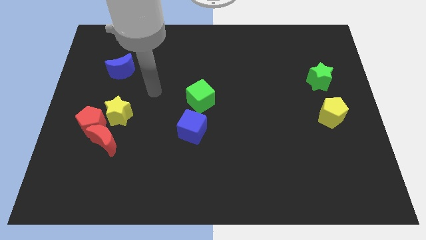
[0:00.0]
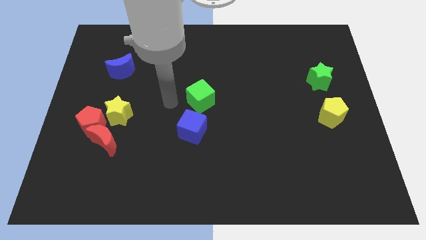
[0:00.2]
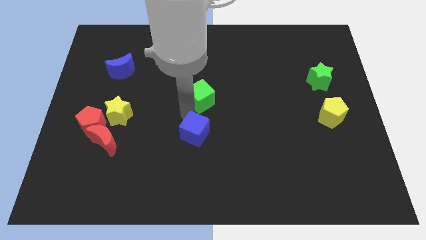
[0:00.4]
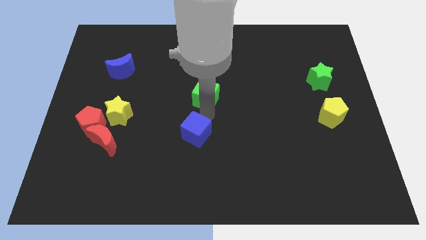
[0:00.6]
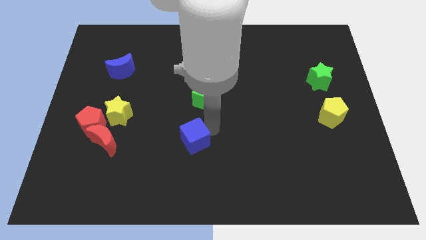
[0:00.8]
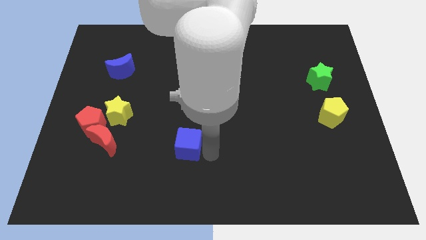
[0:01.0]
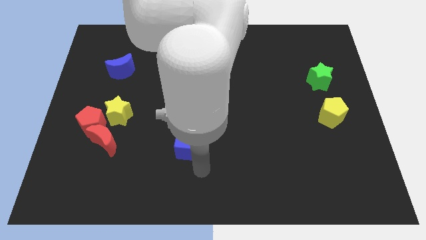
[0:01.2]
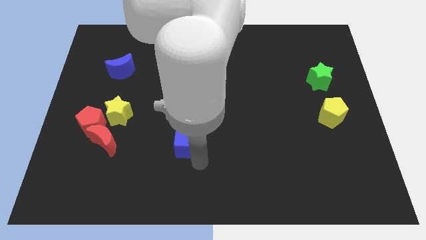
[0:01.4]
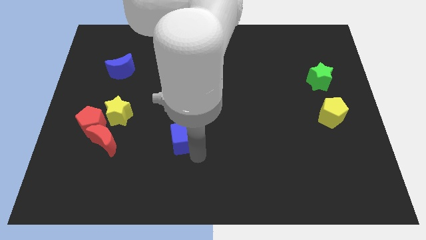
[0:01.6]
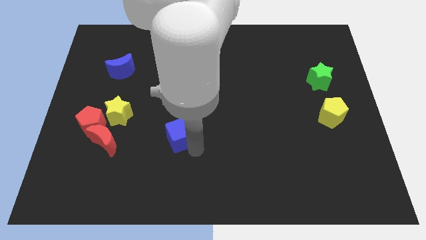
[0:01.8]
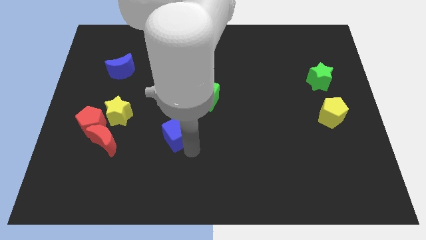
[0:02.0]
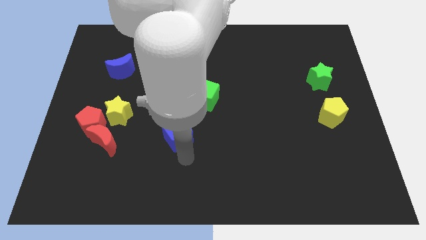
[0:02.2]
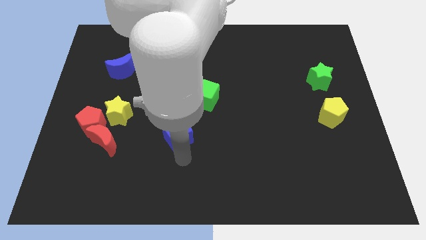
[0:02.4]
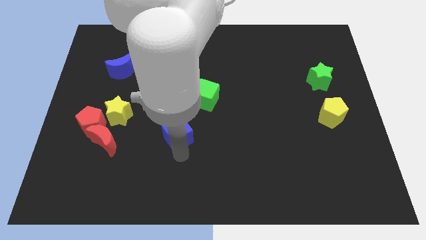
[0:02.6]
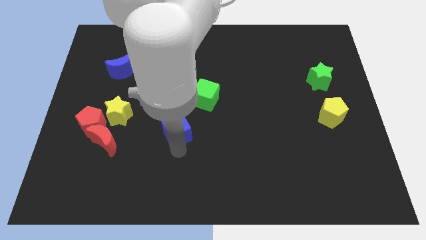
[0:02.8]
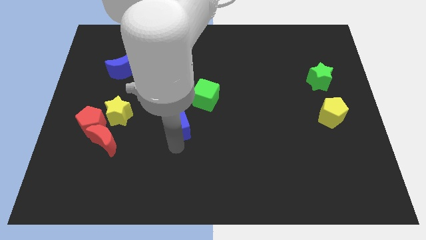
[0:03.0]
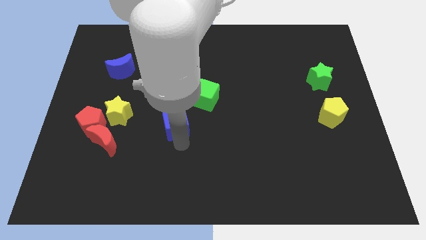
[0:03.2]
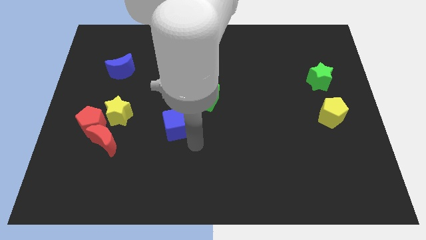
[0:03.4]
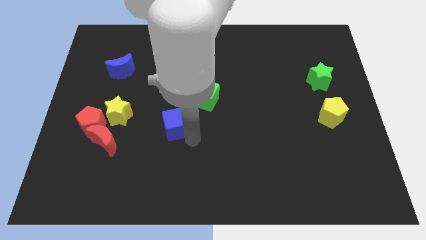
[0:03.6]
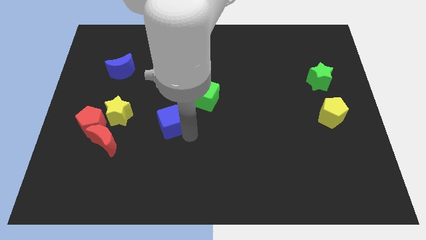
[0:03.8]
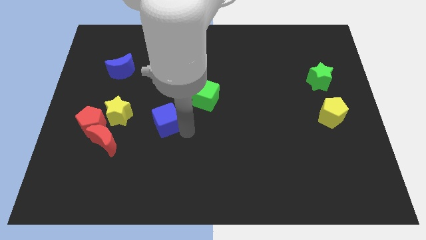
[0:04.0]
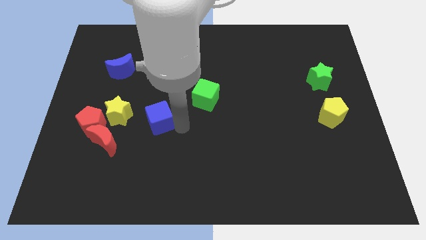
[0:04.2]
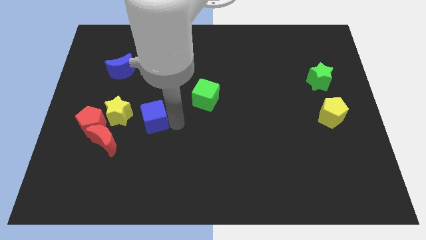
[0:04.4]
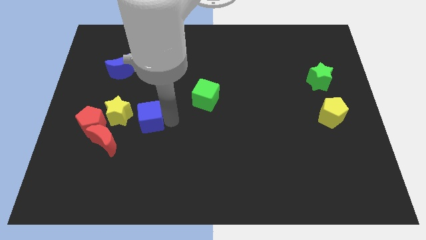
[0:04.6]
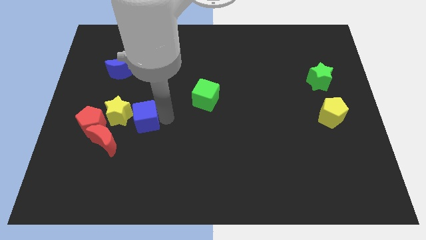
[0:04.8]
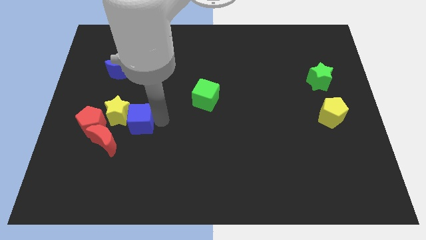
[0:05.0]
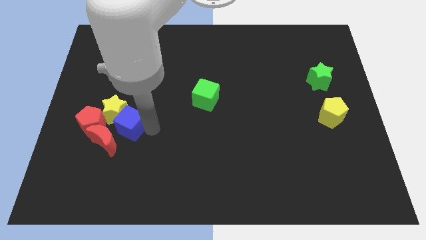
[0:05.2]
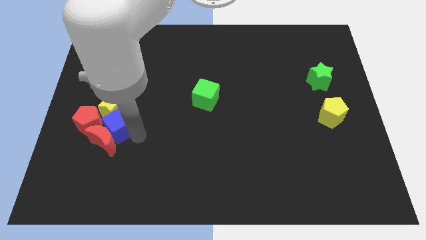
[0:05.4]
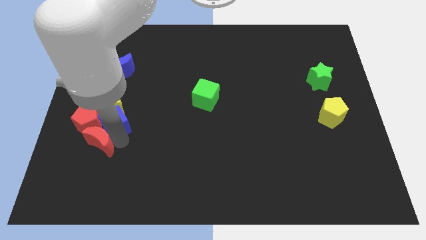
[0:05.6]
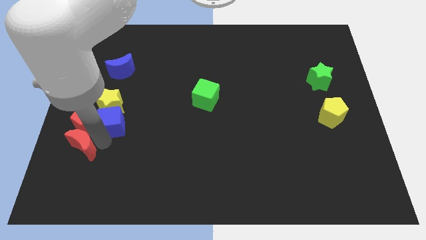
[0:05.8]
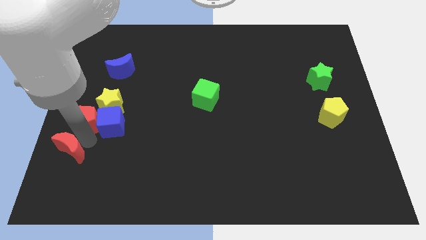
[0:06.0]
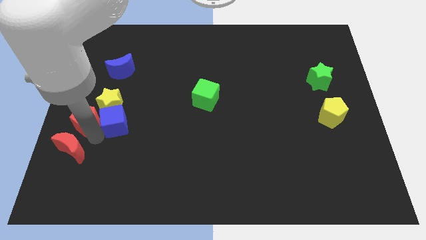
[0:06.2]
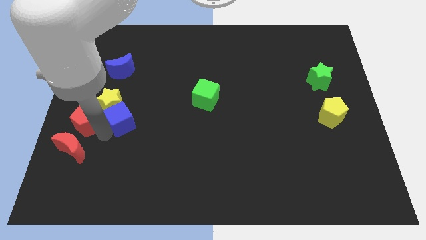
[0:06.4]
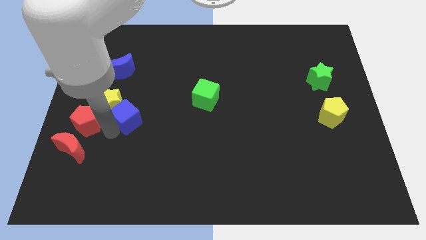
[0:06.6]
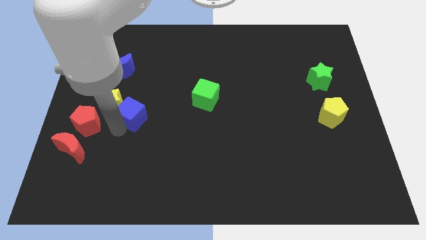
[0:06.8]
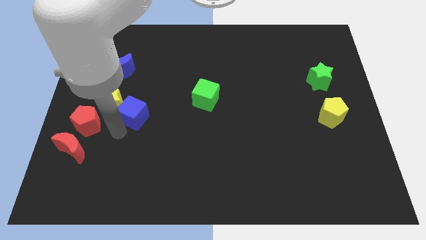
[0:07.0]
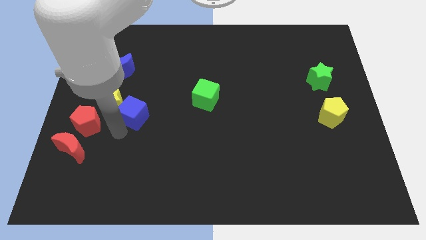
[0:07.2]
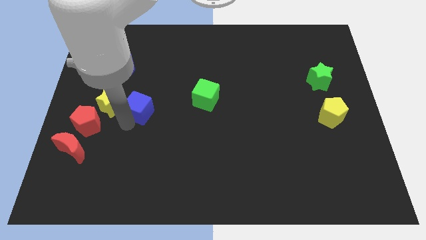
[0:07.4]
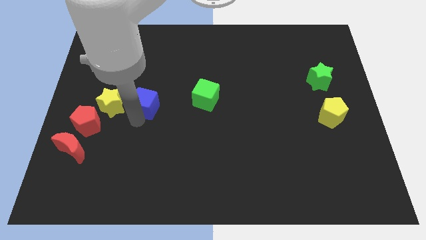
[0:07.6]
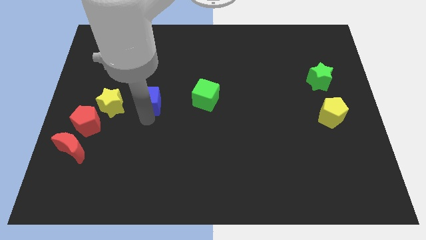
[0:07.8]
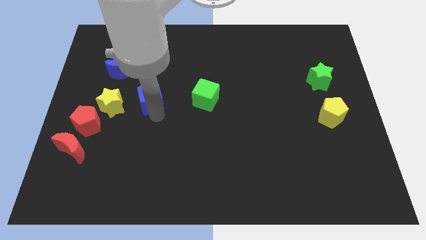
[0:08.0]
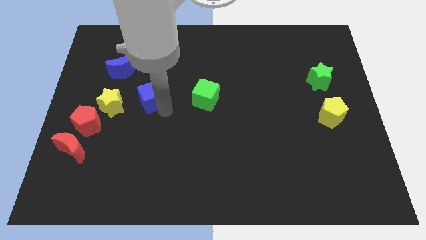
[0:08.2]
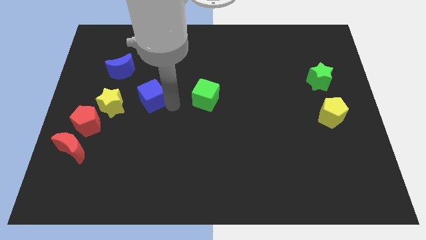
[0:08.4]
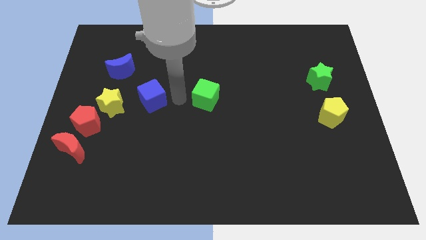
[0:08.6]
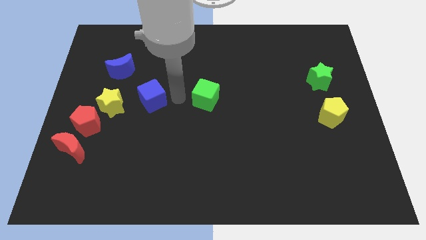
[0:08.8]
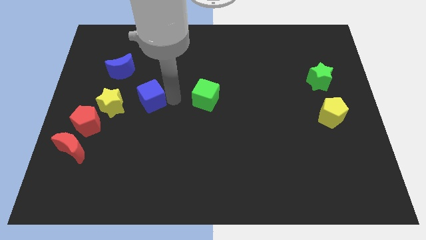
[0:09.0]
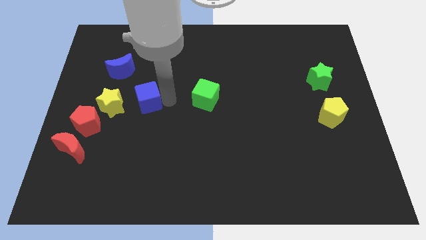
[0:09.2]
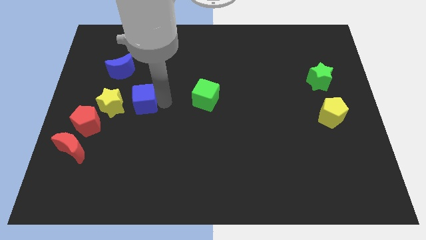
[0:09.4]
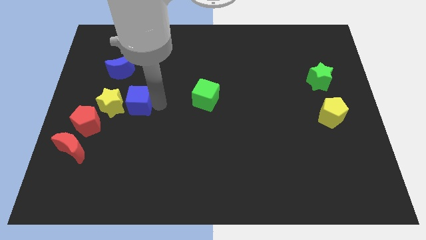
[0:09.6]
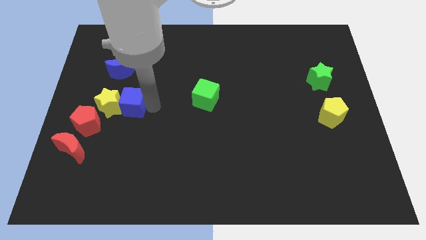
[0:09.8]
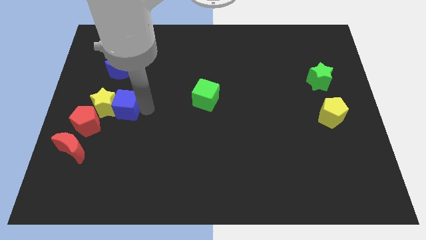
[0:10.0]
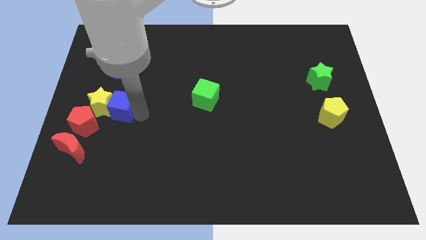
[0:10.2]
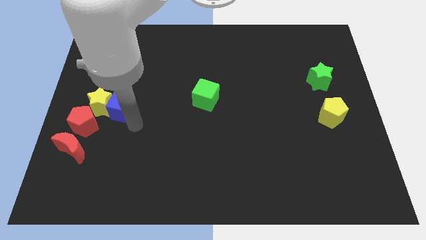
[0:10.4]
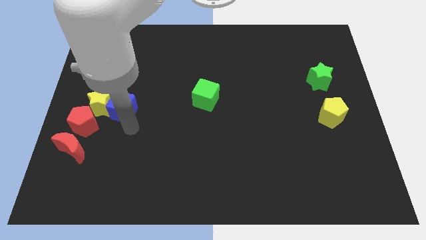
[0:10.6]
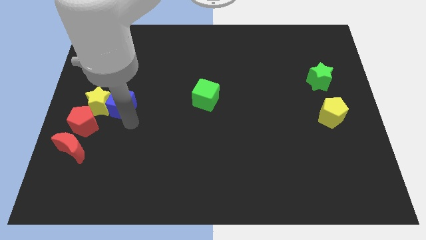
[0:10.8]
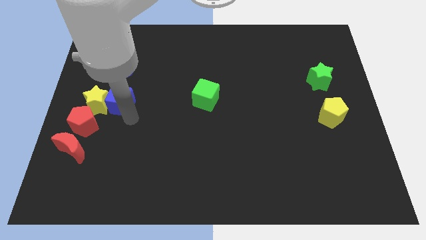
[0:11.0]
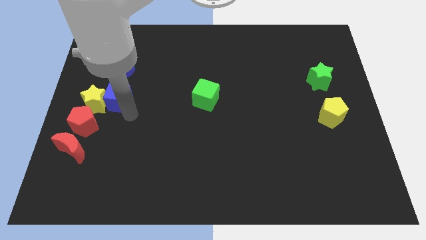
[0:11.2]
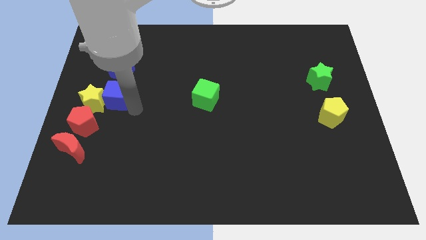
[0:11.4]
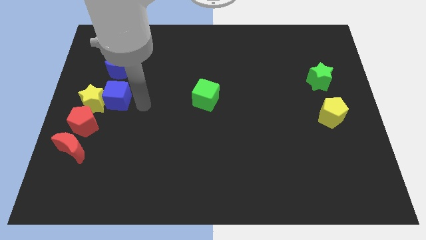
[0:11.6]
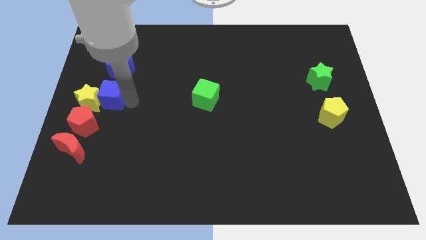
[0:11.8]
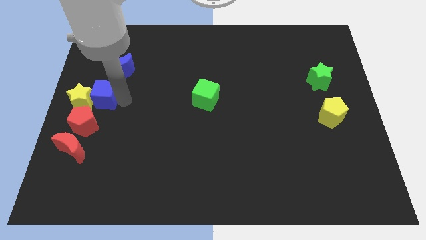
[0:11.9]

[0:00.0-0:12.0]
push the blue cube to the left side of the board

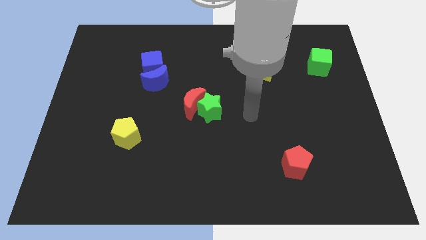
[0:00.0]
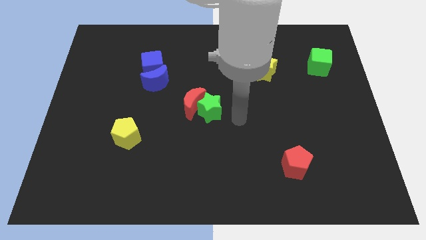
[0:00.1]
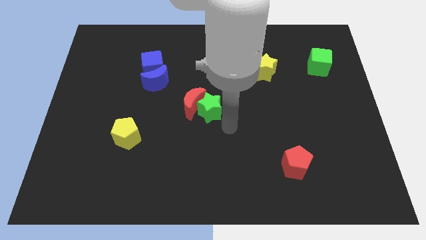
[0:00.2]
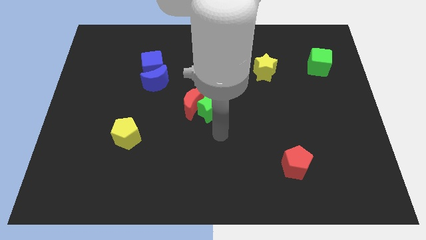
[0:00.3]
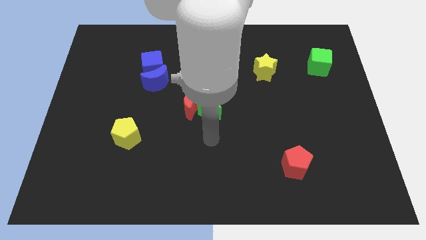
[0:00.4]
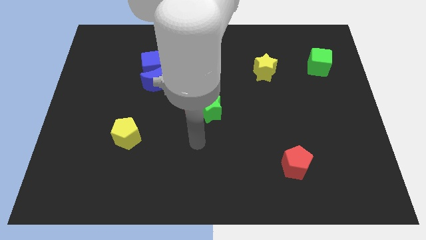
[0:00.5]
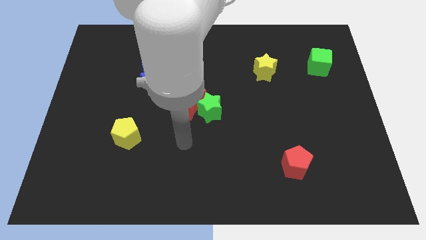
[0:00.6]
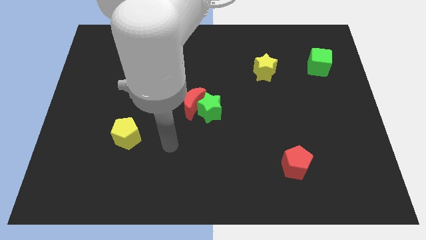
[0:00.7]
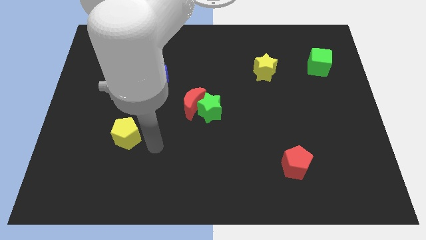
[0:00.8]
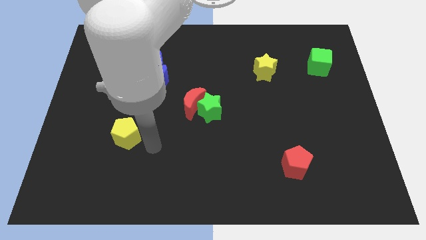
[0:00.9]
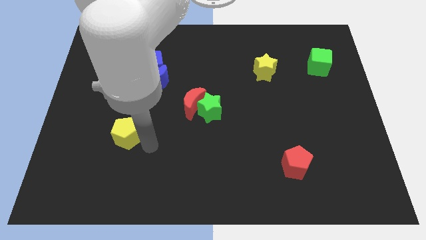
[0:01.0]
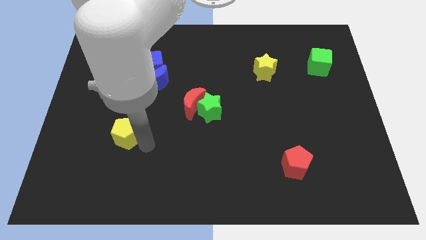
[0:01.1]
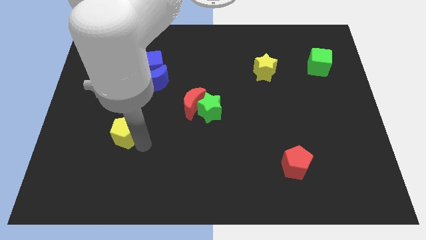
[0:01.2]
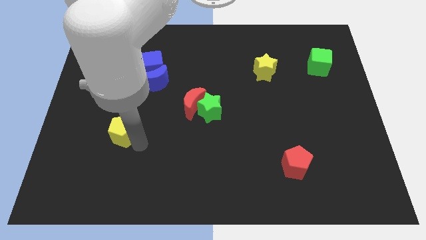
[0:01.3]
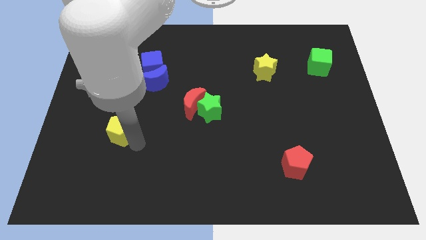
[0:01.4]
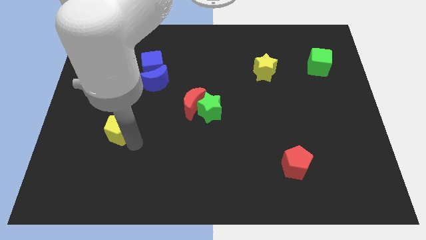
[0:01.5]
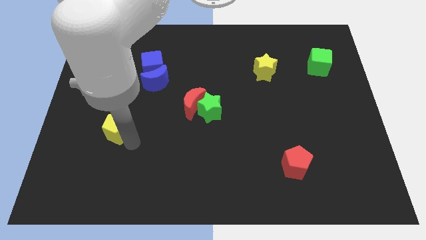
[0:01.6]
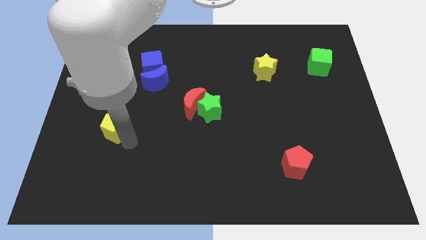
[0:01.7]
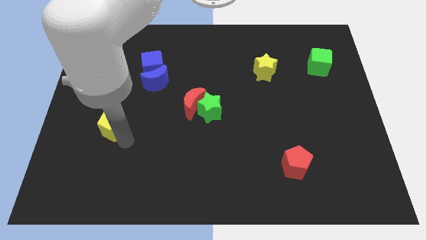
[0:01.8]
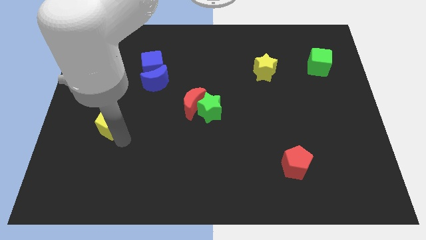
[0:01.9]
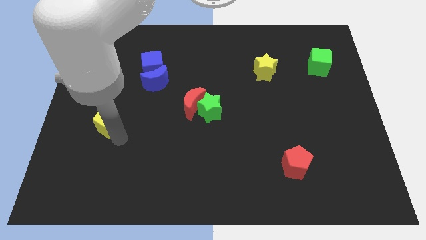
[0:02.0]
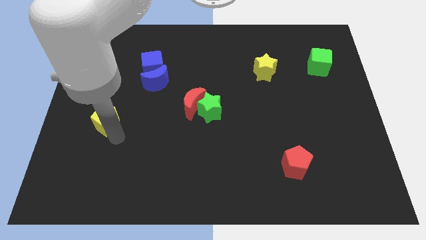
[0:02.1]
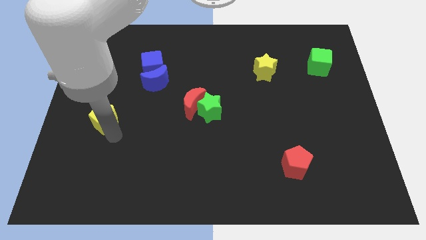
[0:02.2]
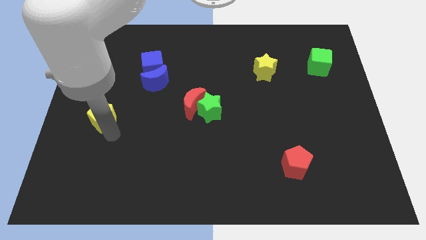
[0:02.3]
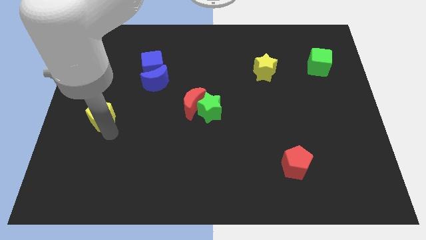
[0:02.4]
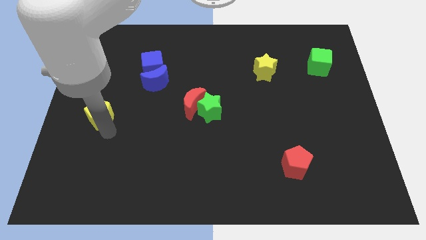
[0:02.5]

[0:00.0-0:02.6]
push the yellow pentagon to the left side
